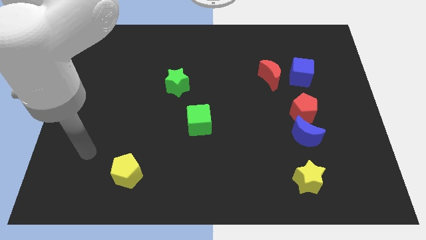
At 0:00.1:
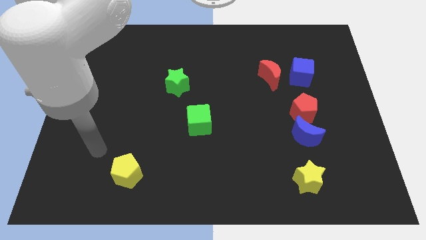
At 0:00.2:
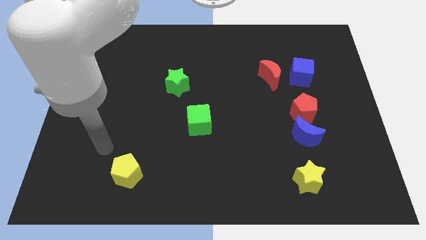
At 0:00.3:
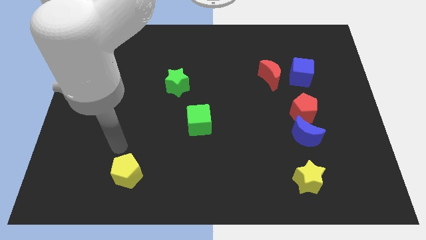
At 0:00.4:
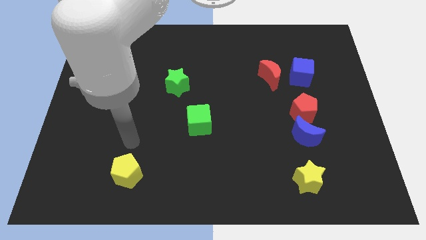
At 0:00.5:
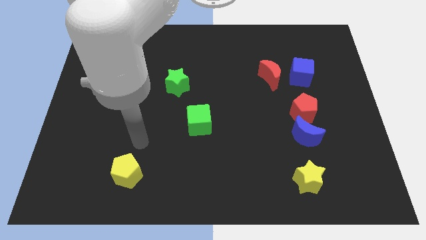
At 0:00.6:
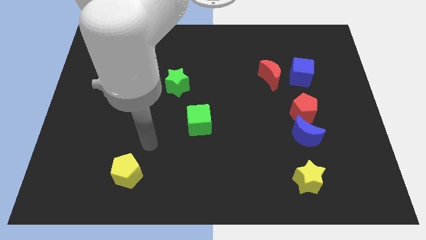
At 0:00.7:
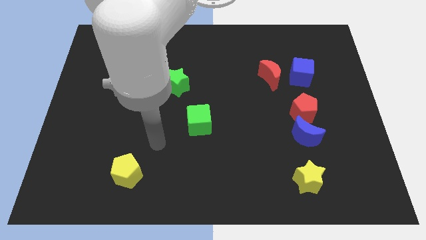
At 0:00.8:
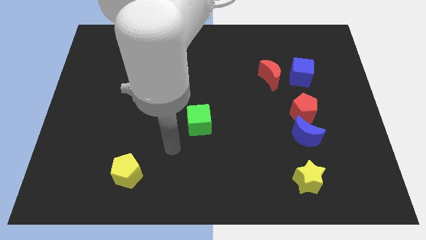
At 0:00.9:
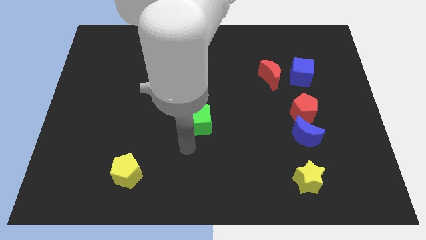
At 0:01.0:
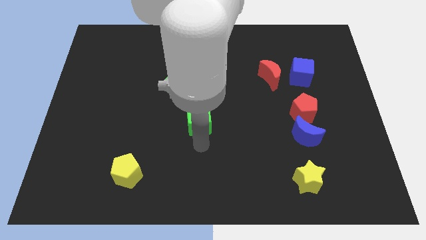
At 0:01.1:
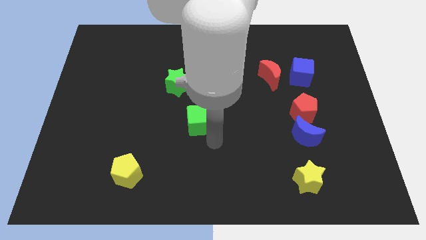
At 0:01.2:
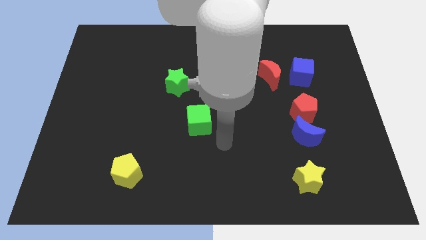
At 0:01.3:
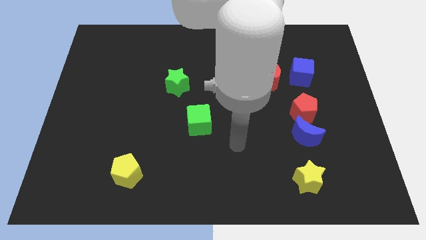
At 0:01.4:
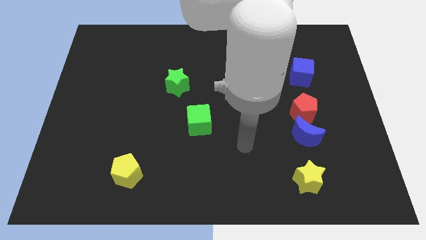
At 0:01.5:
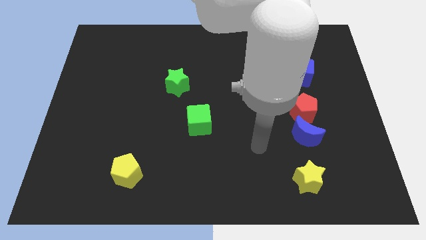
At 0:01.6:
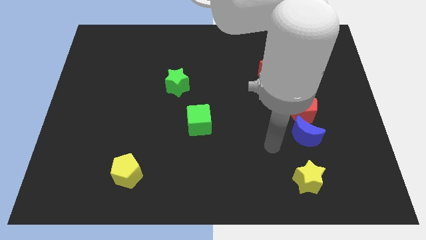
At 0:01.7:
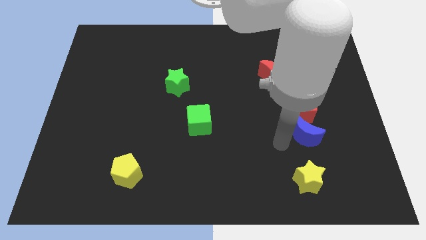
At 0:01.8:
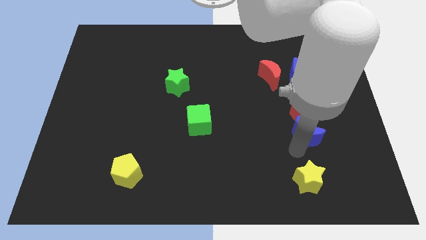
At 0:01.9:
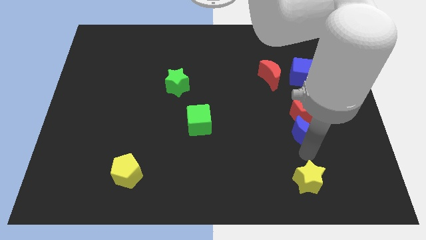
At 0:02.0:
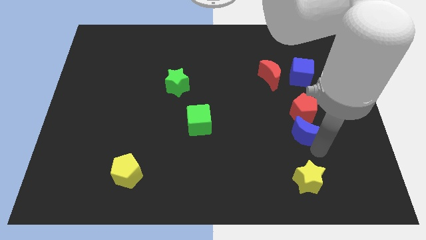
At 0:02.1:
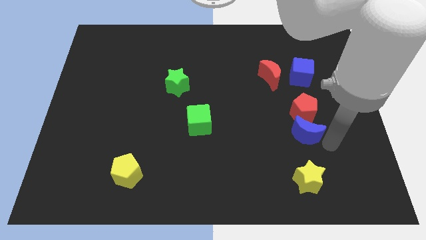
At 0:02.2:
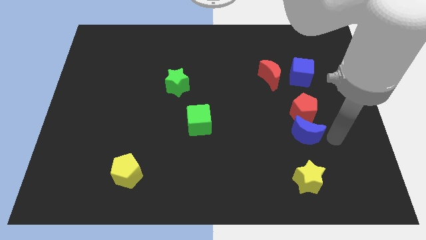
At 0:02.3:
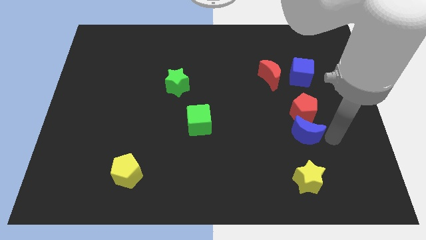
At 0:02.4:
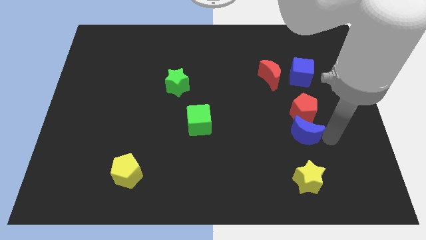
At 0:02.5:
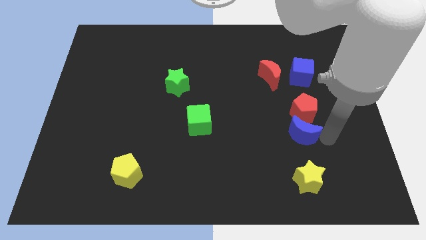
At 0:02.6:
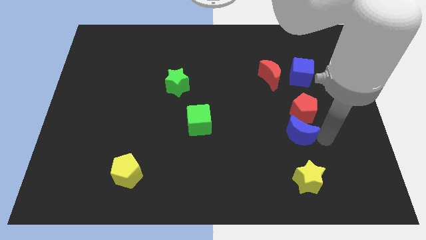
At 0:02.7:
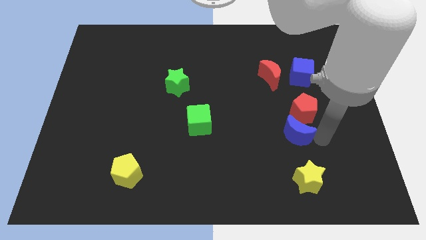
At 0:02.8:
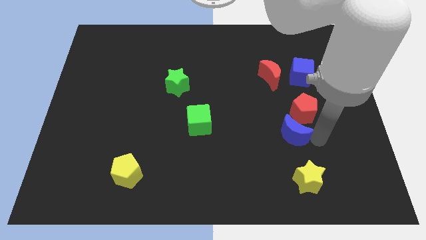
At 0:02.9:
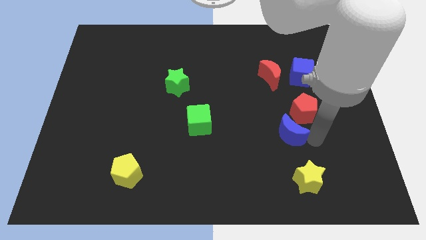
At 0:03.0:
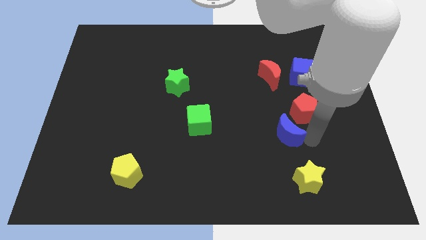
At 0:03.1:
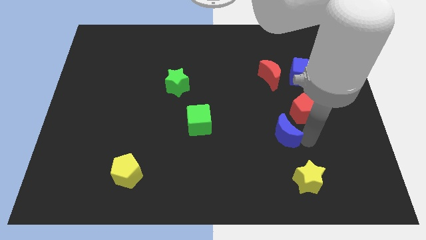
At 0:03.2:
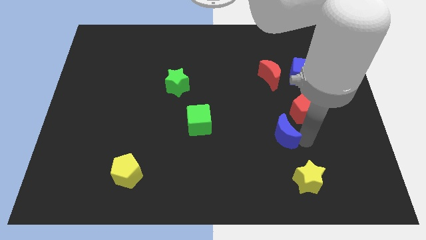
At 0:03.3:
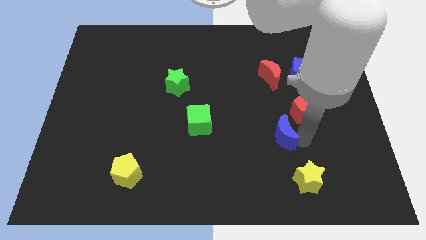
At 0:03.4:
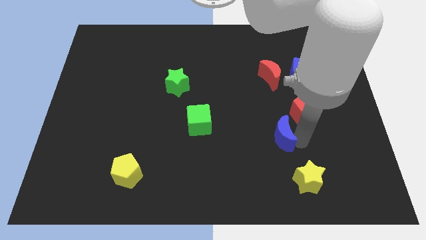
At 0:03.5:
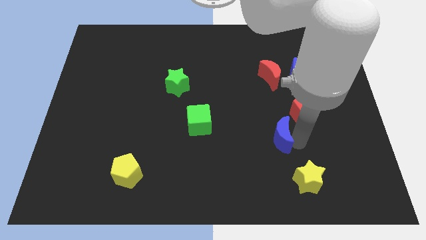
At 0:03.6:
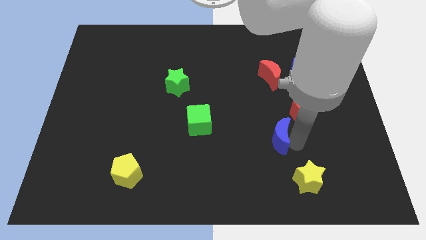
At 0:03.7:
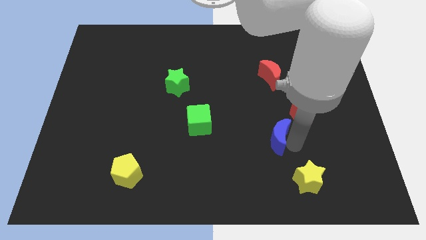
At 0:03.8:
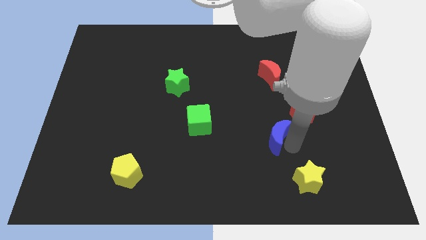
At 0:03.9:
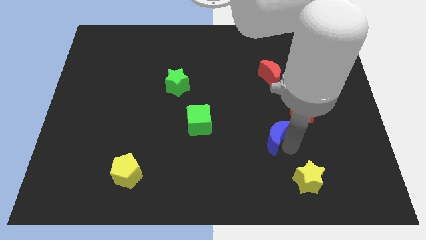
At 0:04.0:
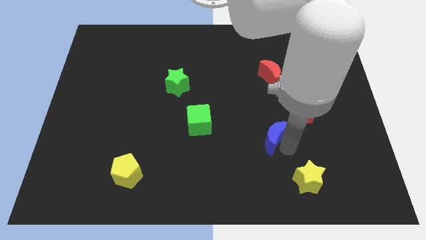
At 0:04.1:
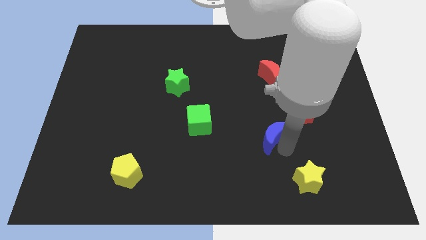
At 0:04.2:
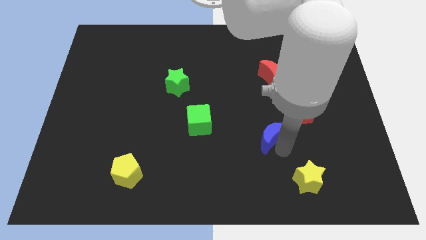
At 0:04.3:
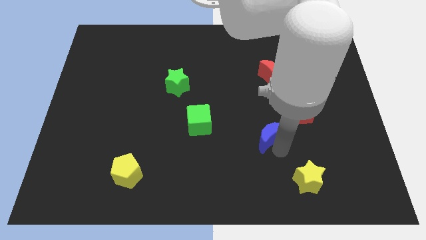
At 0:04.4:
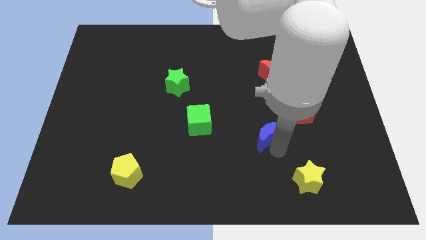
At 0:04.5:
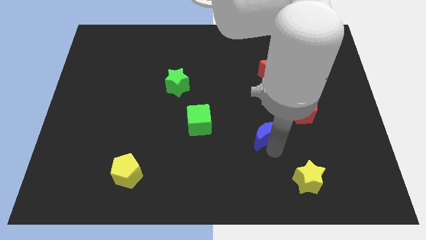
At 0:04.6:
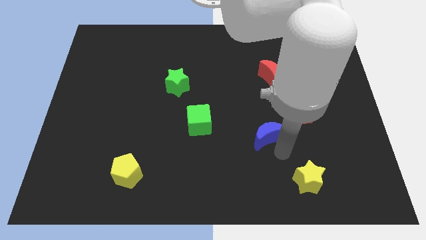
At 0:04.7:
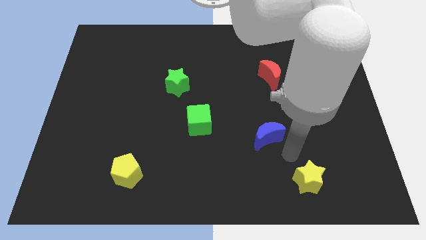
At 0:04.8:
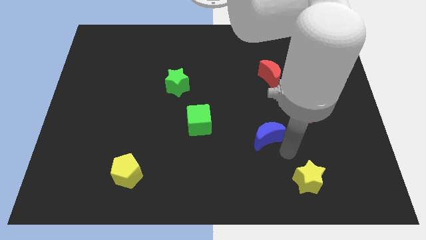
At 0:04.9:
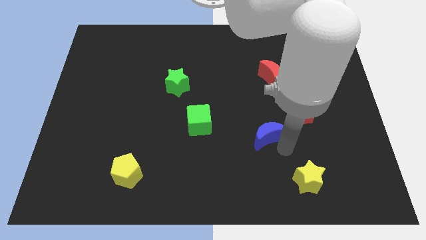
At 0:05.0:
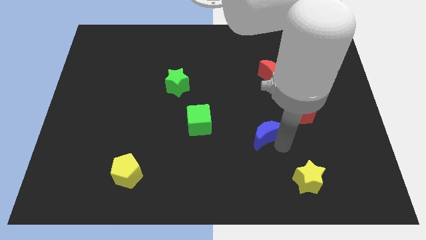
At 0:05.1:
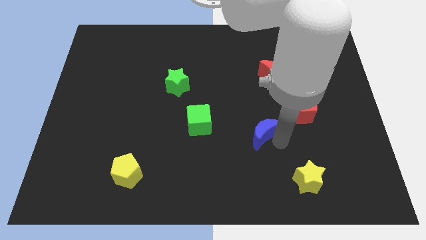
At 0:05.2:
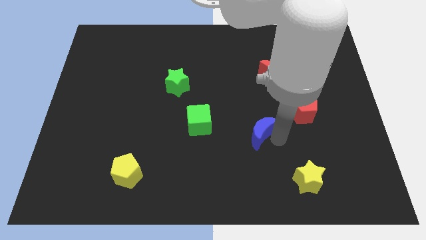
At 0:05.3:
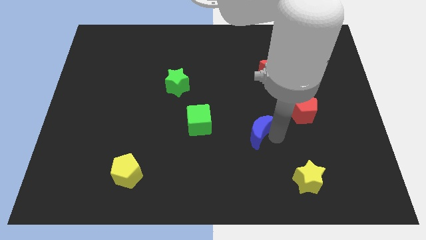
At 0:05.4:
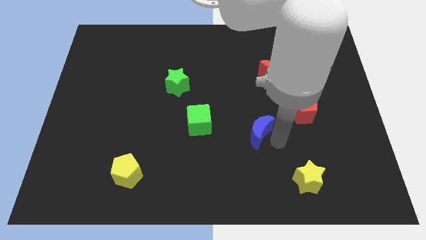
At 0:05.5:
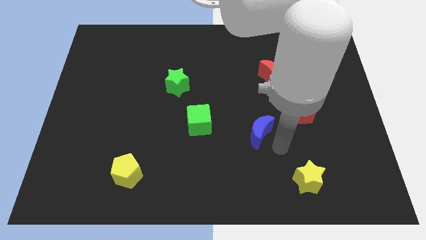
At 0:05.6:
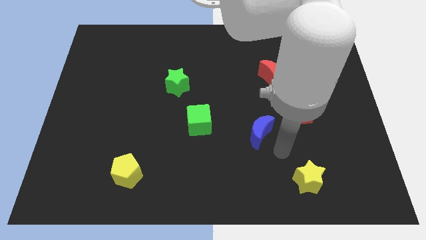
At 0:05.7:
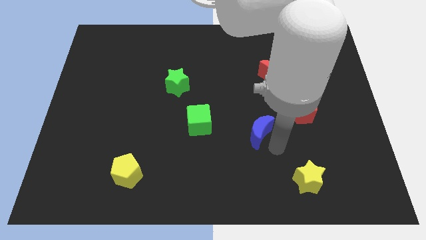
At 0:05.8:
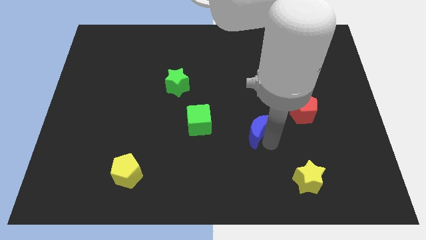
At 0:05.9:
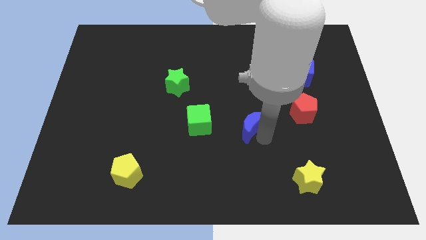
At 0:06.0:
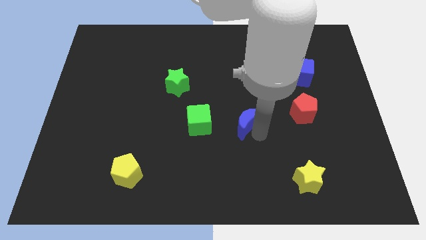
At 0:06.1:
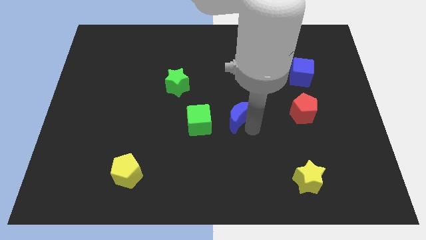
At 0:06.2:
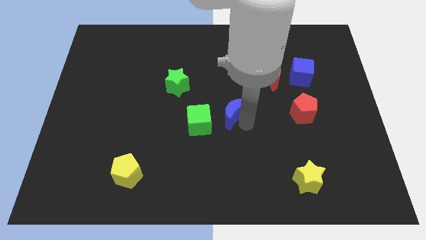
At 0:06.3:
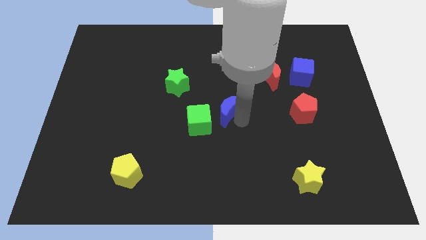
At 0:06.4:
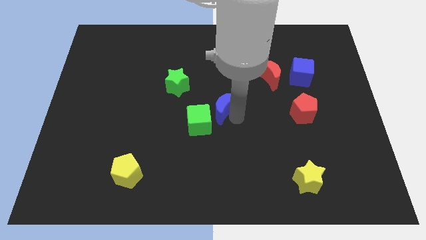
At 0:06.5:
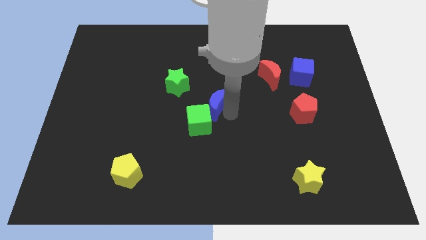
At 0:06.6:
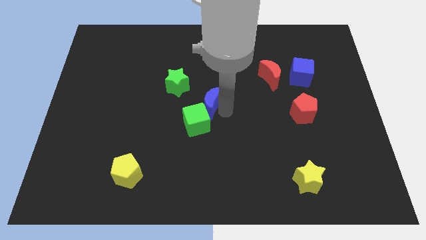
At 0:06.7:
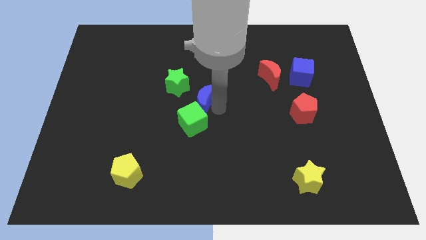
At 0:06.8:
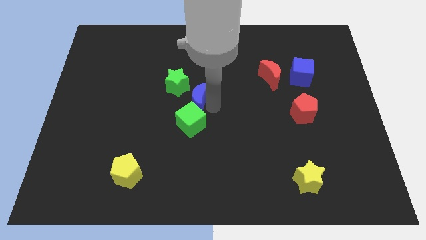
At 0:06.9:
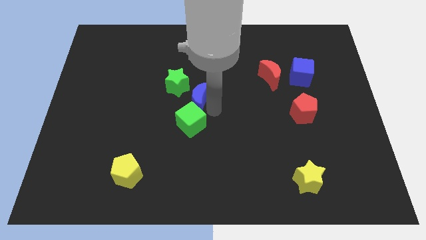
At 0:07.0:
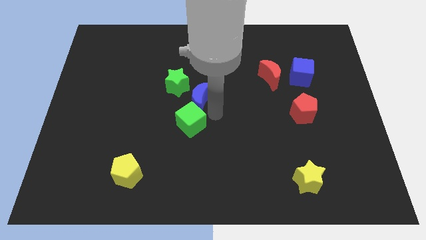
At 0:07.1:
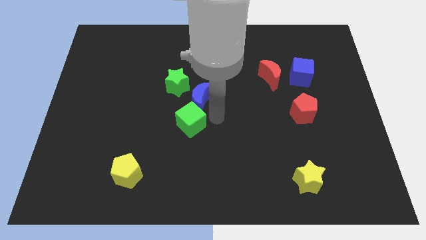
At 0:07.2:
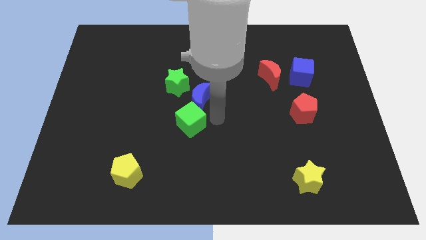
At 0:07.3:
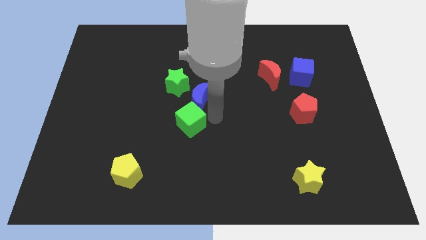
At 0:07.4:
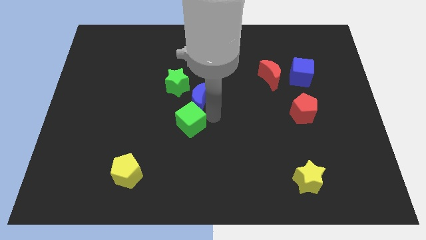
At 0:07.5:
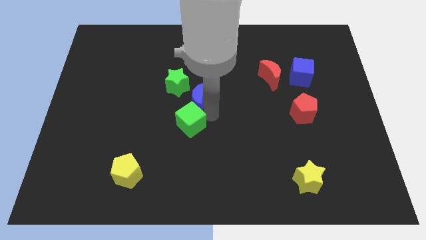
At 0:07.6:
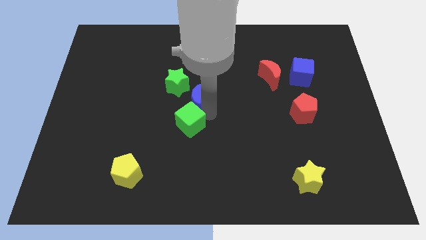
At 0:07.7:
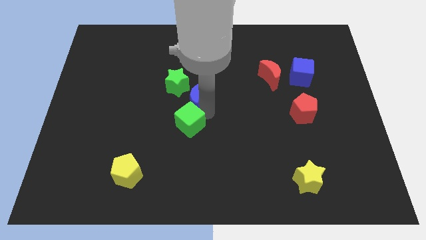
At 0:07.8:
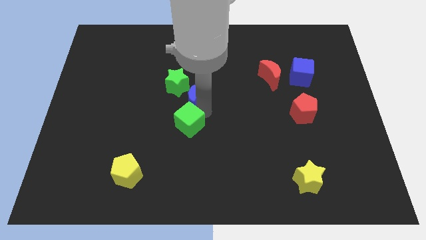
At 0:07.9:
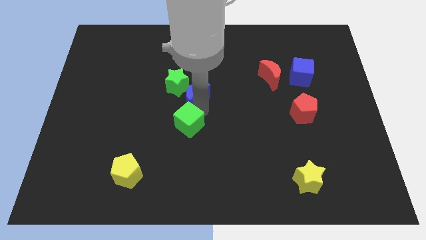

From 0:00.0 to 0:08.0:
move the blue moon towards the green star
